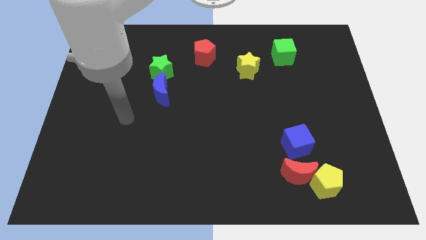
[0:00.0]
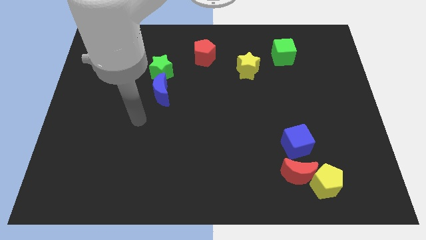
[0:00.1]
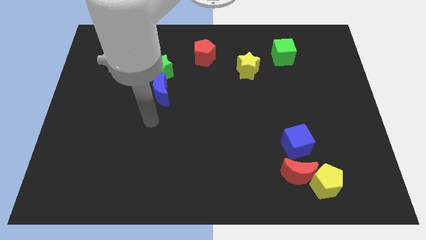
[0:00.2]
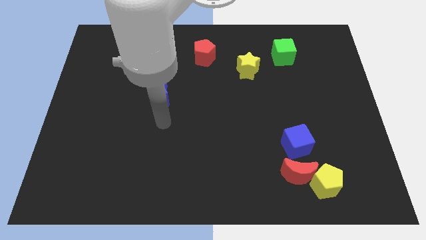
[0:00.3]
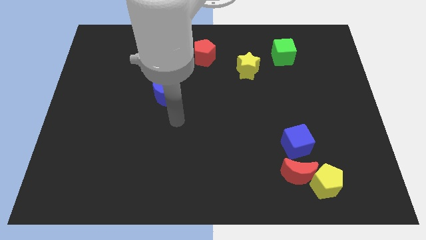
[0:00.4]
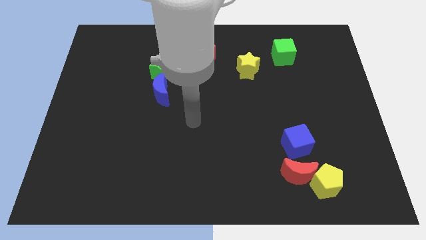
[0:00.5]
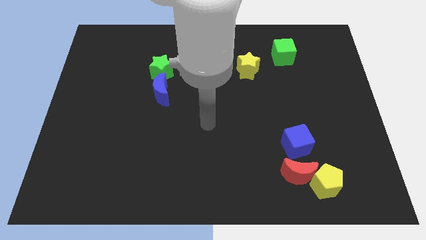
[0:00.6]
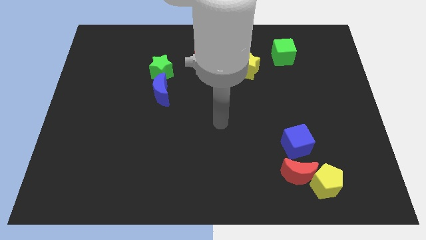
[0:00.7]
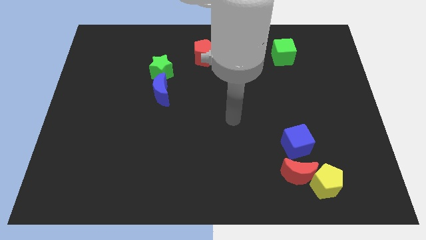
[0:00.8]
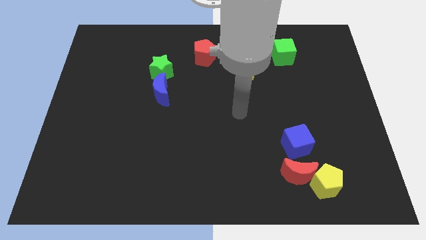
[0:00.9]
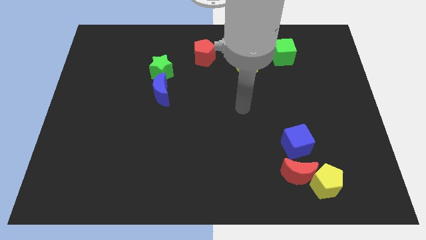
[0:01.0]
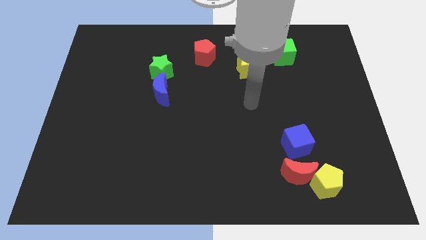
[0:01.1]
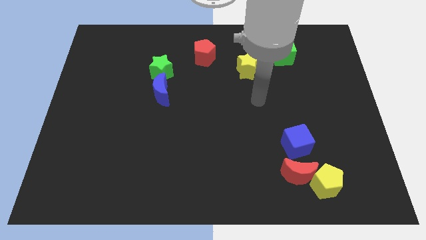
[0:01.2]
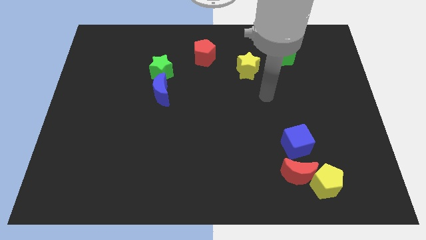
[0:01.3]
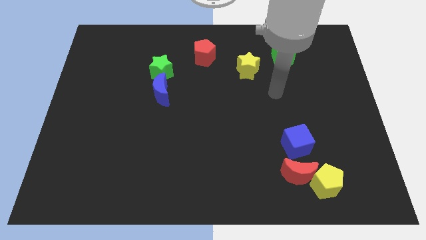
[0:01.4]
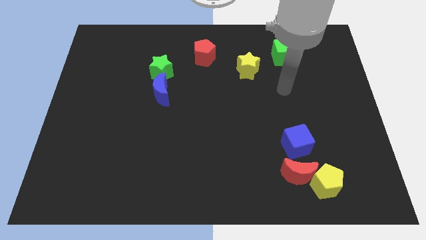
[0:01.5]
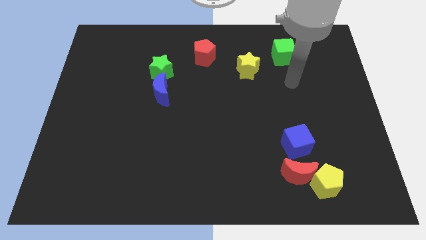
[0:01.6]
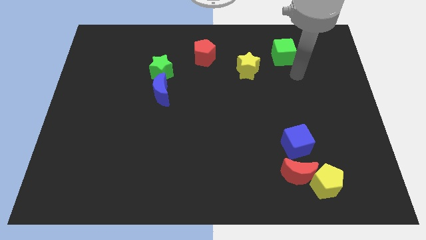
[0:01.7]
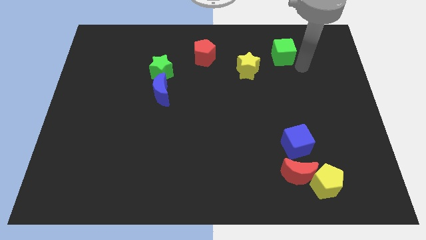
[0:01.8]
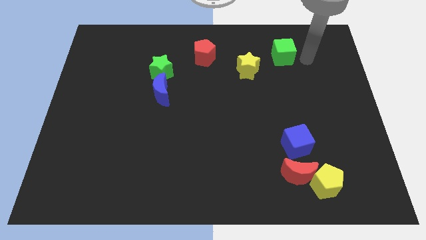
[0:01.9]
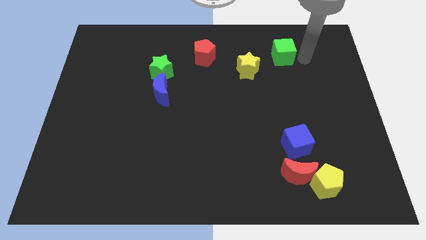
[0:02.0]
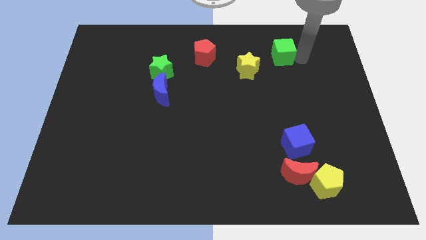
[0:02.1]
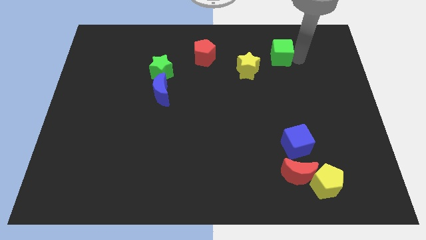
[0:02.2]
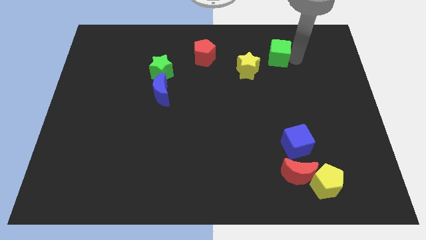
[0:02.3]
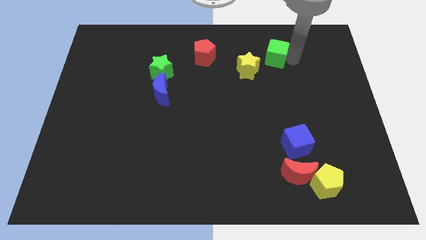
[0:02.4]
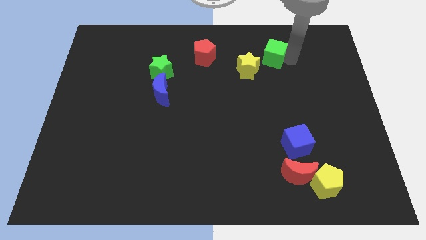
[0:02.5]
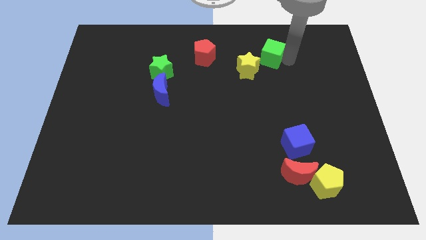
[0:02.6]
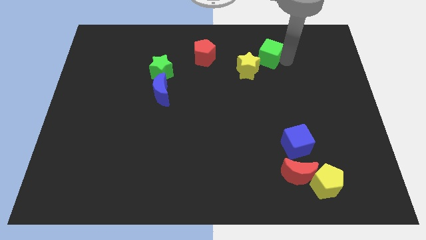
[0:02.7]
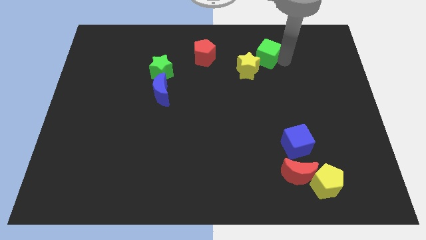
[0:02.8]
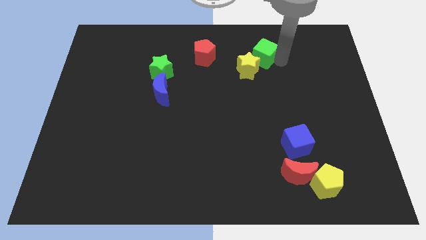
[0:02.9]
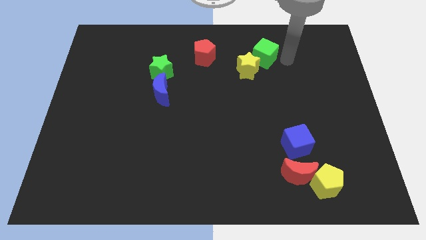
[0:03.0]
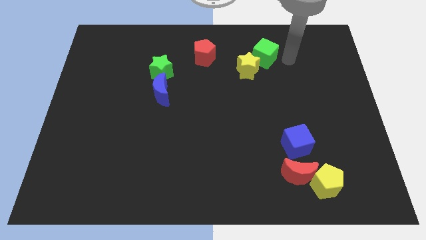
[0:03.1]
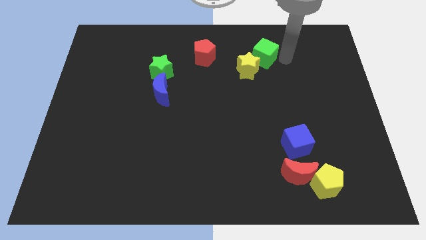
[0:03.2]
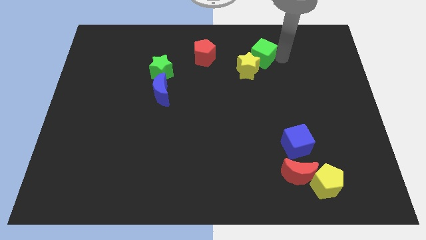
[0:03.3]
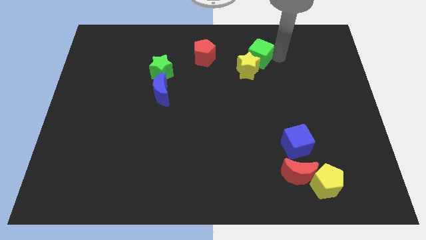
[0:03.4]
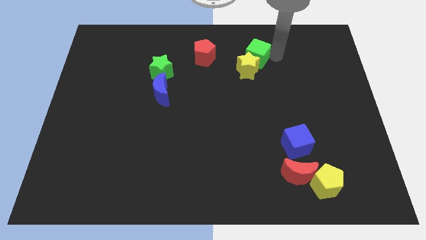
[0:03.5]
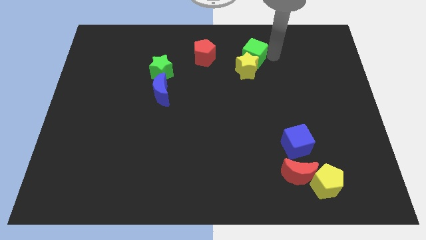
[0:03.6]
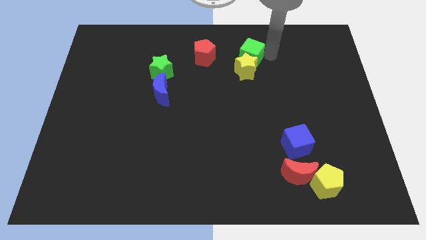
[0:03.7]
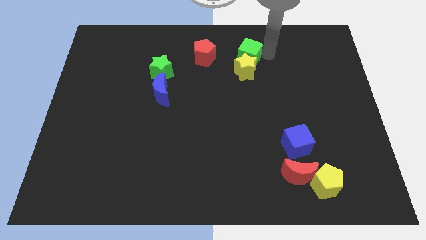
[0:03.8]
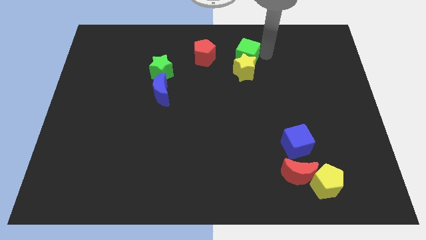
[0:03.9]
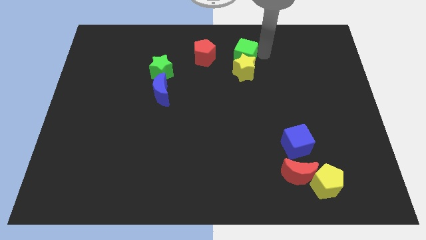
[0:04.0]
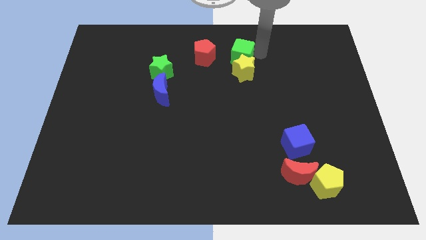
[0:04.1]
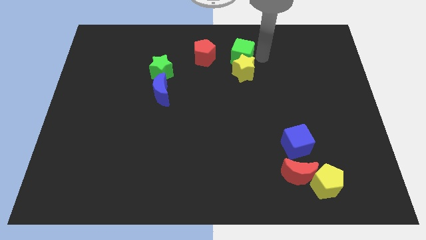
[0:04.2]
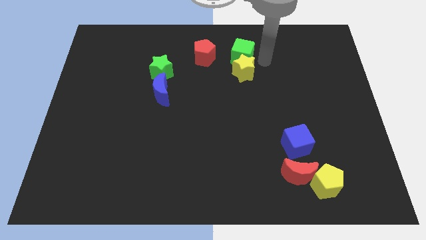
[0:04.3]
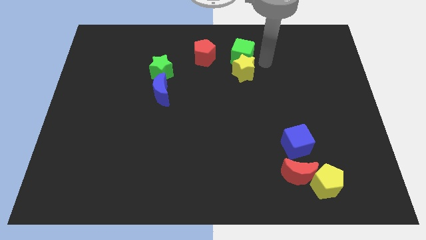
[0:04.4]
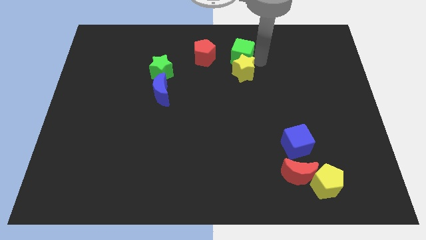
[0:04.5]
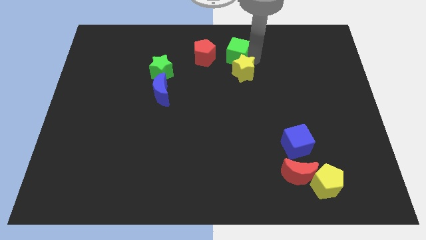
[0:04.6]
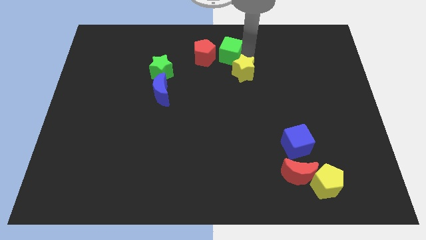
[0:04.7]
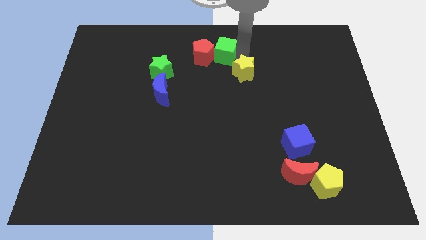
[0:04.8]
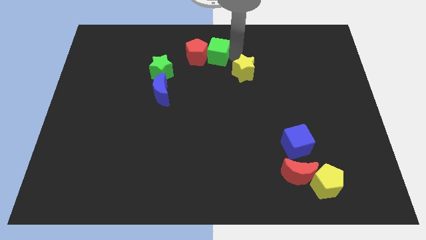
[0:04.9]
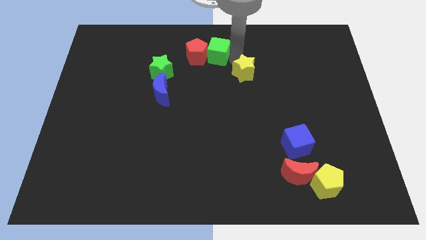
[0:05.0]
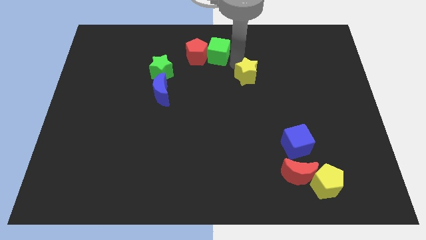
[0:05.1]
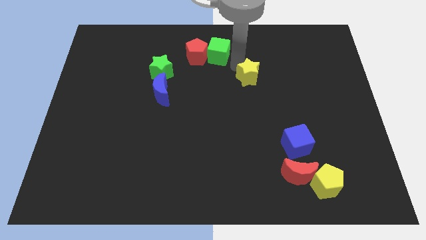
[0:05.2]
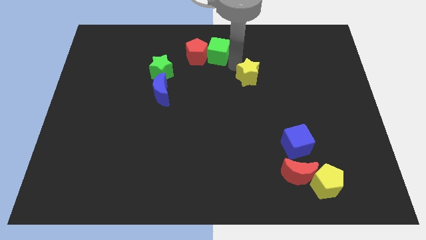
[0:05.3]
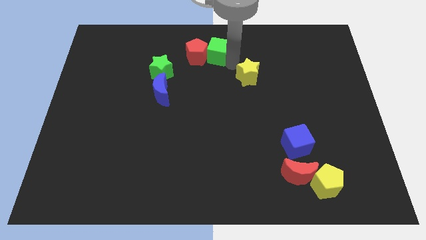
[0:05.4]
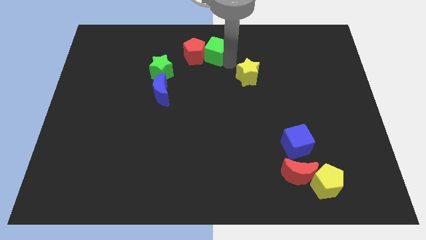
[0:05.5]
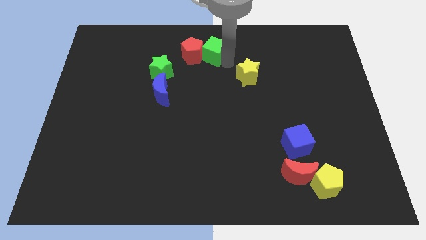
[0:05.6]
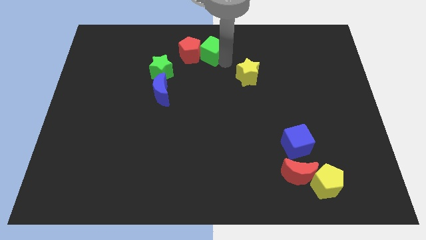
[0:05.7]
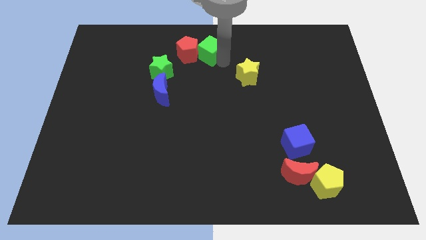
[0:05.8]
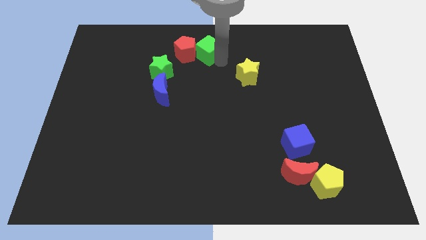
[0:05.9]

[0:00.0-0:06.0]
slide the green cube to the left

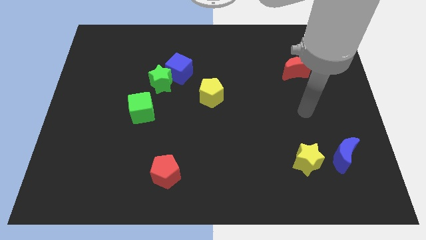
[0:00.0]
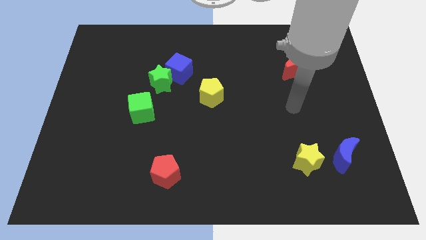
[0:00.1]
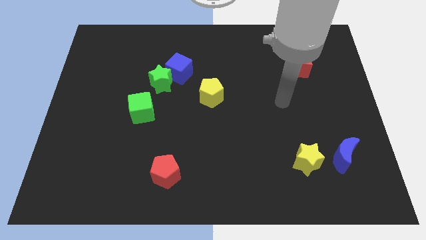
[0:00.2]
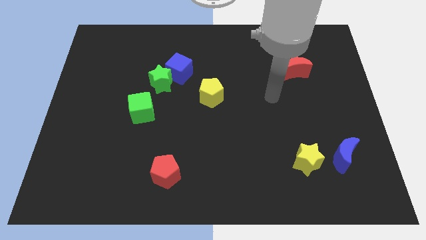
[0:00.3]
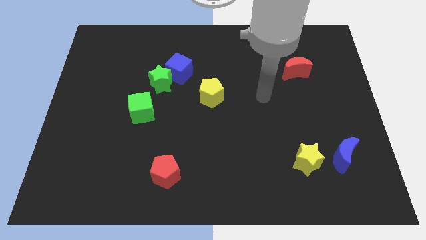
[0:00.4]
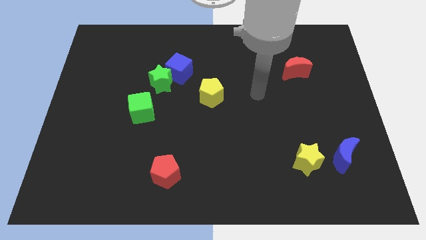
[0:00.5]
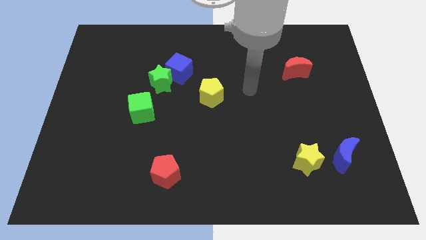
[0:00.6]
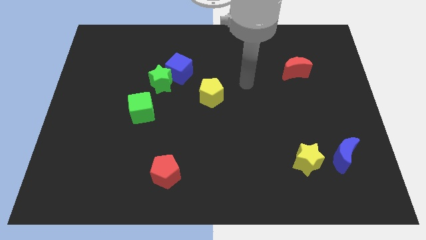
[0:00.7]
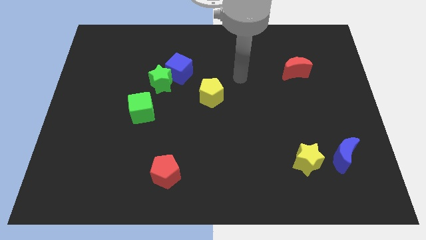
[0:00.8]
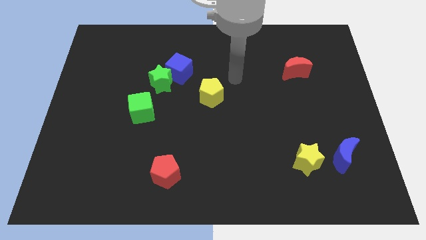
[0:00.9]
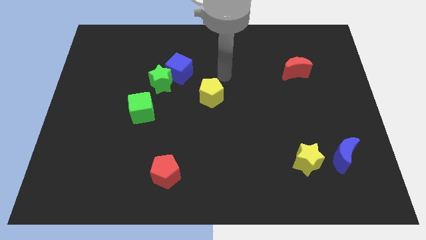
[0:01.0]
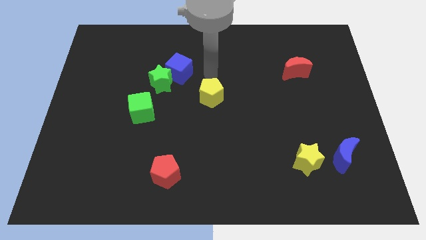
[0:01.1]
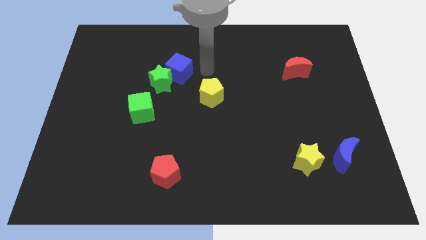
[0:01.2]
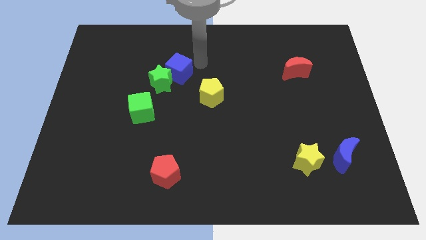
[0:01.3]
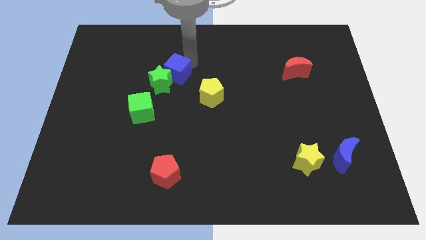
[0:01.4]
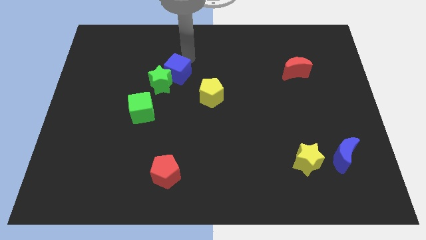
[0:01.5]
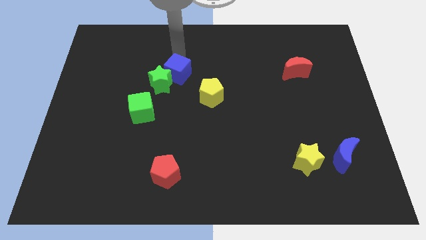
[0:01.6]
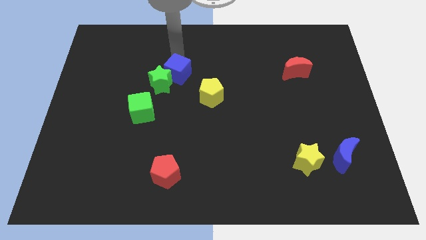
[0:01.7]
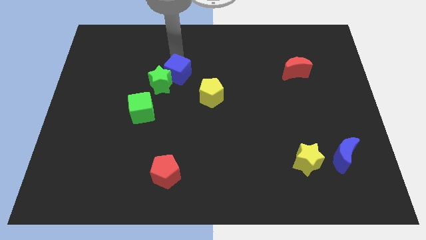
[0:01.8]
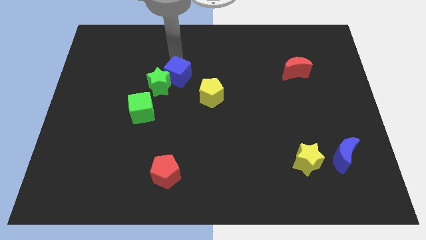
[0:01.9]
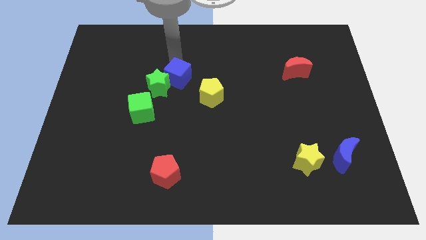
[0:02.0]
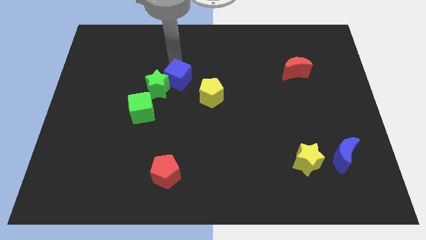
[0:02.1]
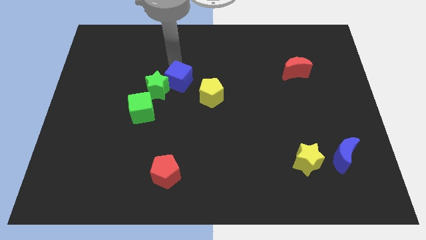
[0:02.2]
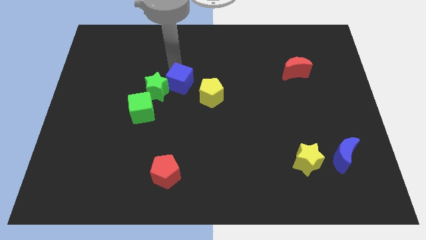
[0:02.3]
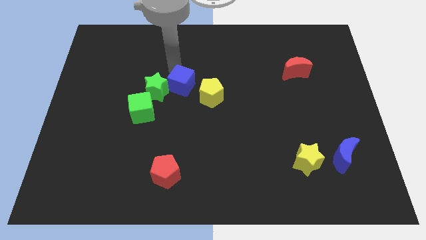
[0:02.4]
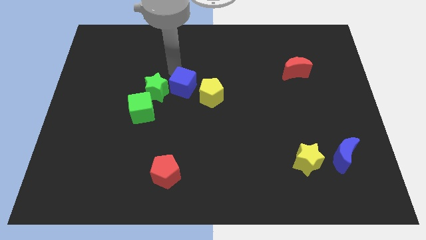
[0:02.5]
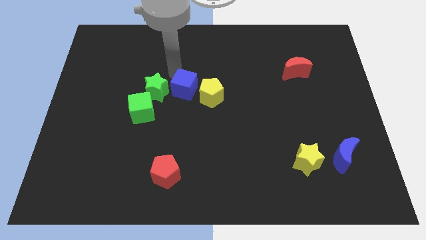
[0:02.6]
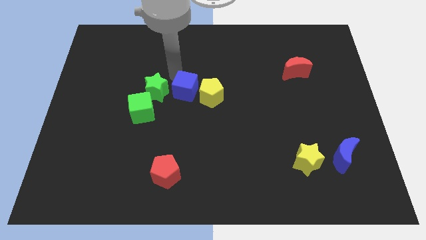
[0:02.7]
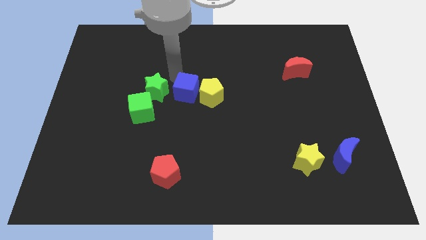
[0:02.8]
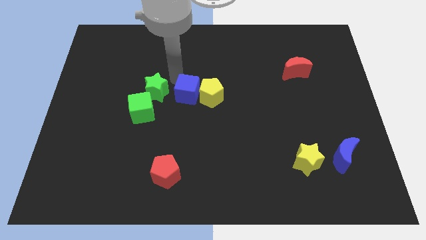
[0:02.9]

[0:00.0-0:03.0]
move the blue cube down a little
